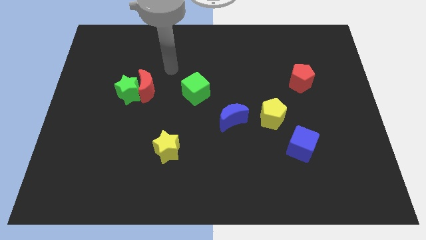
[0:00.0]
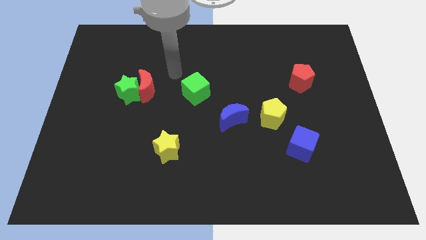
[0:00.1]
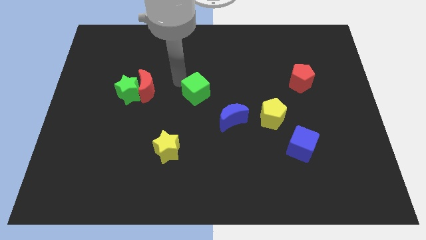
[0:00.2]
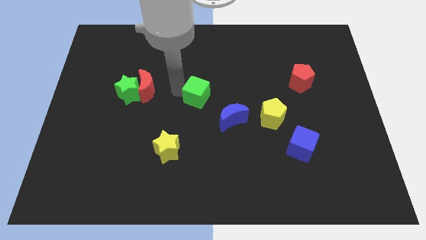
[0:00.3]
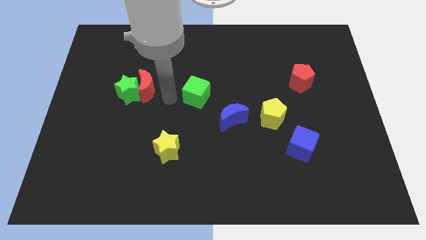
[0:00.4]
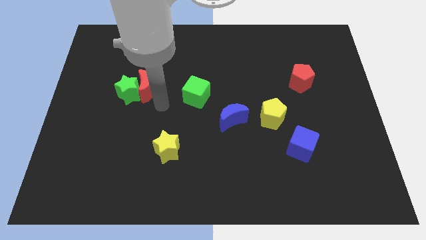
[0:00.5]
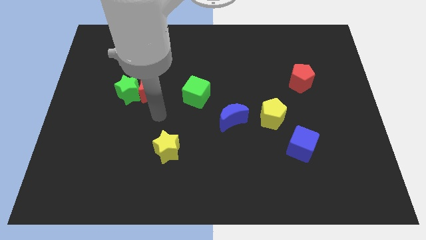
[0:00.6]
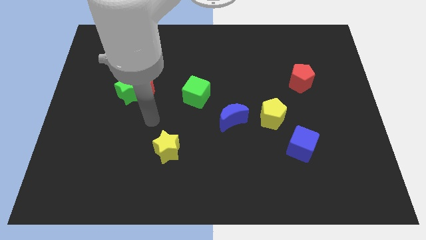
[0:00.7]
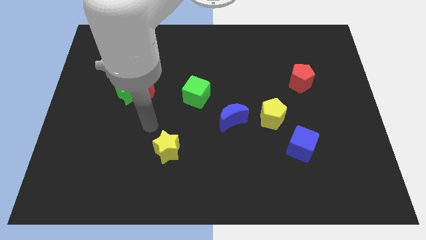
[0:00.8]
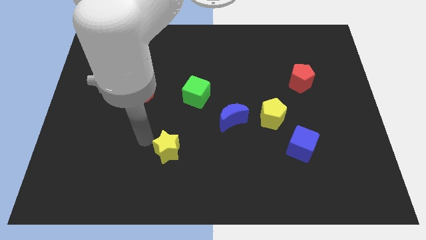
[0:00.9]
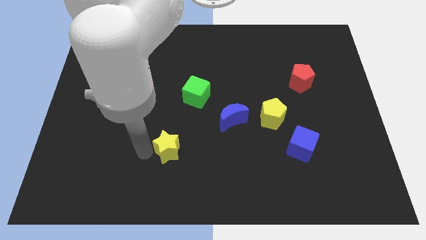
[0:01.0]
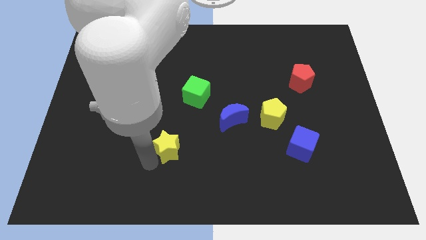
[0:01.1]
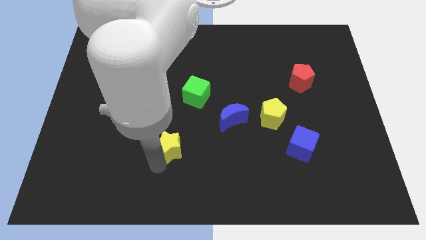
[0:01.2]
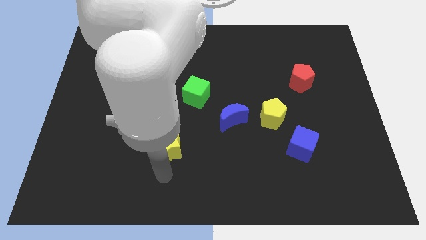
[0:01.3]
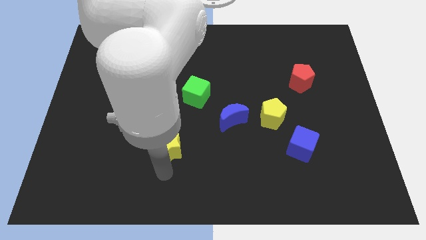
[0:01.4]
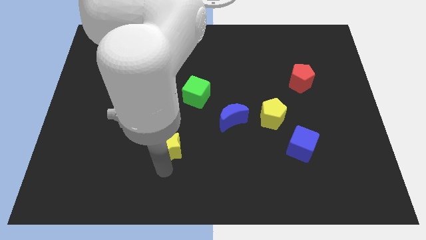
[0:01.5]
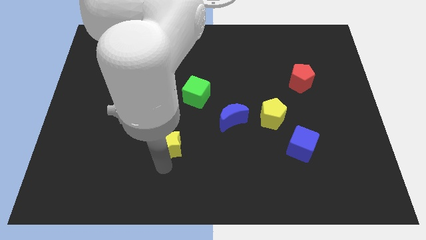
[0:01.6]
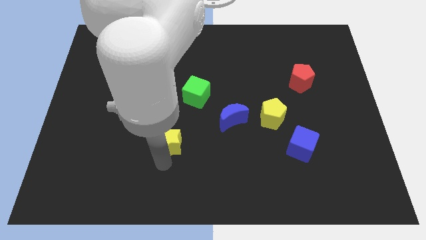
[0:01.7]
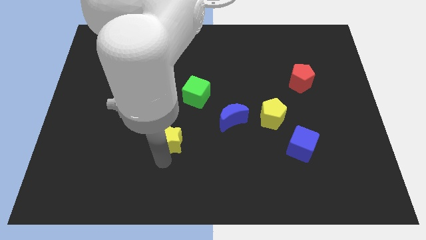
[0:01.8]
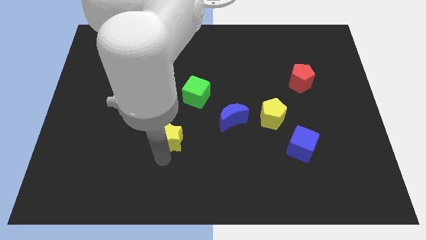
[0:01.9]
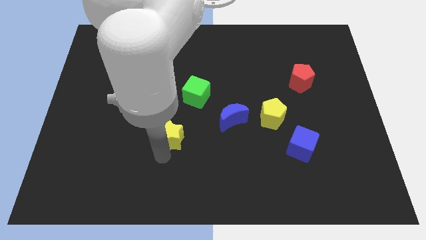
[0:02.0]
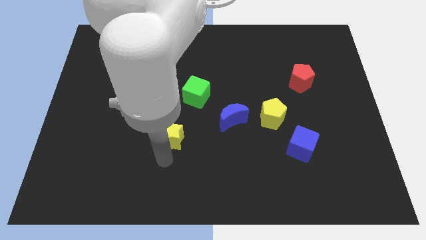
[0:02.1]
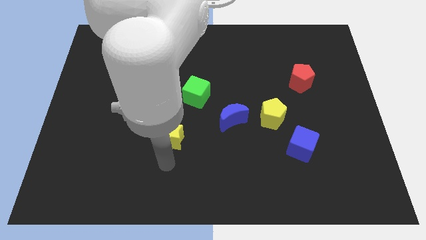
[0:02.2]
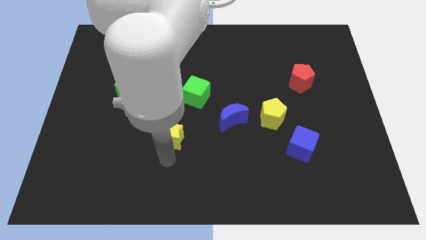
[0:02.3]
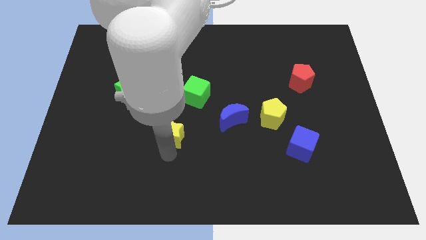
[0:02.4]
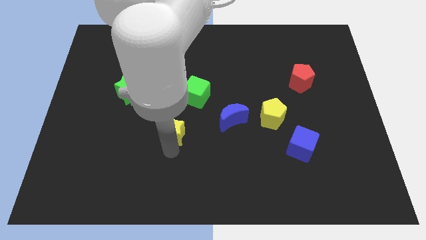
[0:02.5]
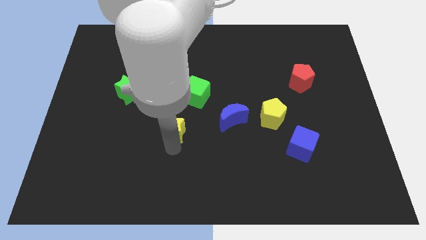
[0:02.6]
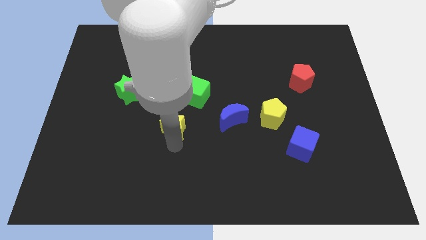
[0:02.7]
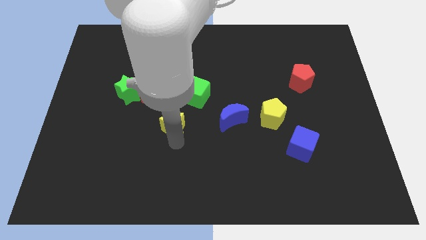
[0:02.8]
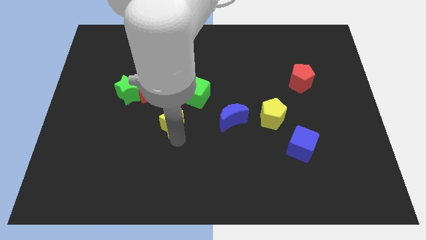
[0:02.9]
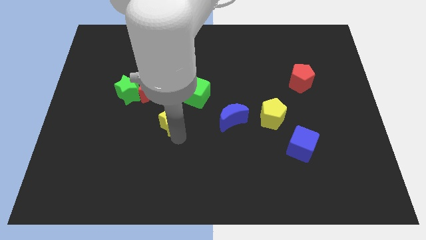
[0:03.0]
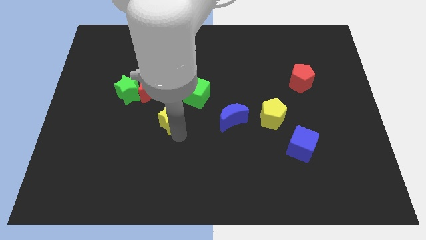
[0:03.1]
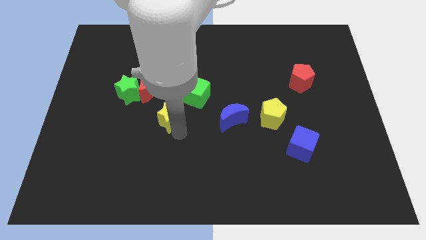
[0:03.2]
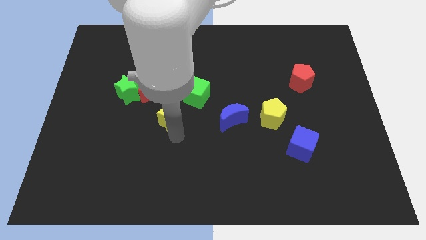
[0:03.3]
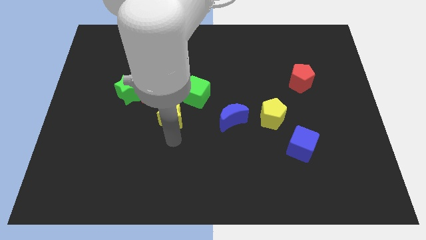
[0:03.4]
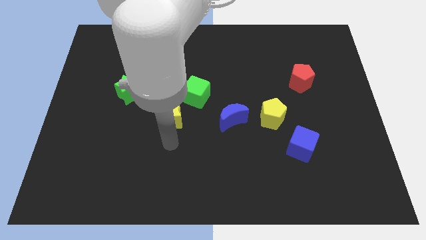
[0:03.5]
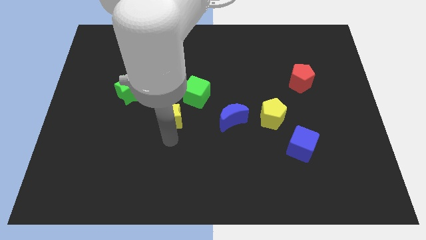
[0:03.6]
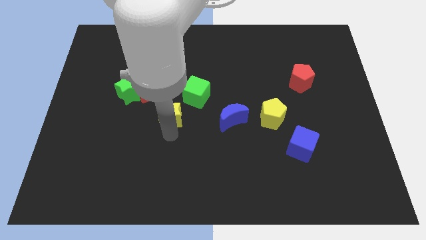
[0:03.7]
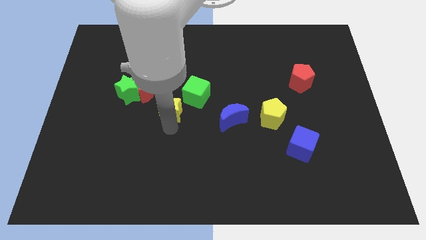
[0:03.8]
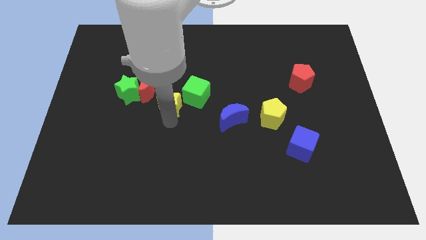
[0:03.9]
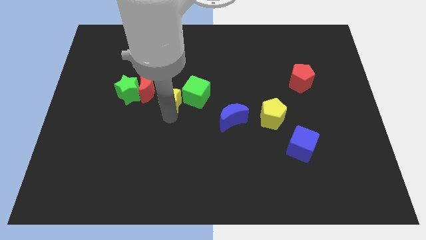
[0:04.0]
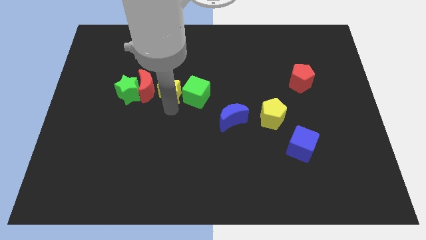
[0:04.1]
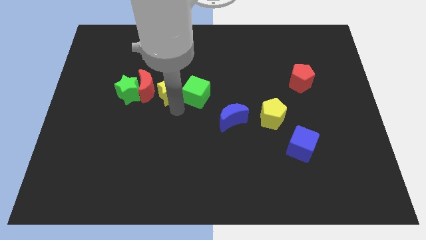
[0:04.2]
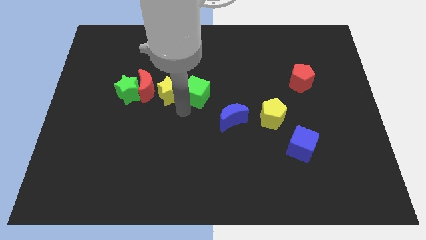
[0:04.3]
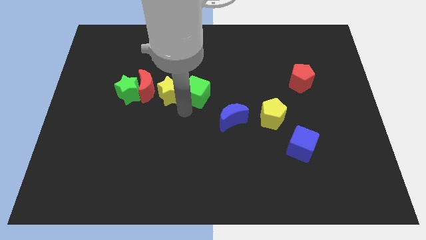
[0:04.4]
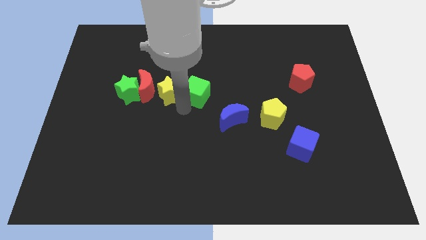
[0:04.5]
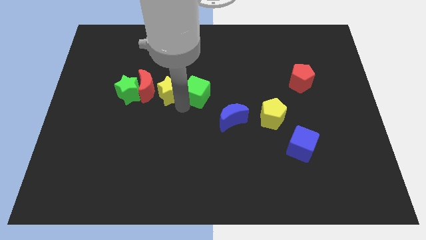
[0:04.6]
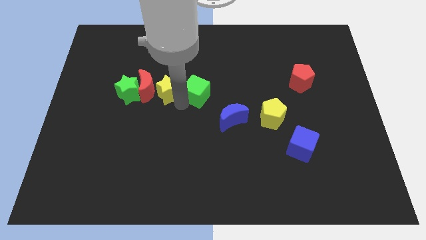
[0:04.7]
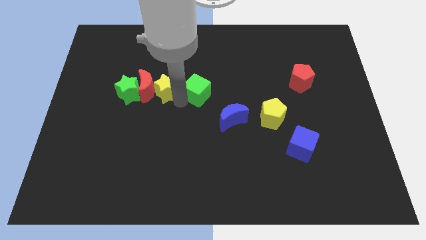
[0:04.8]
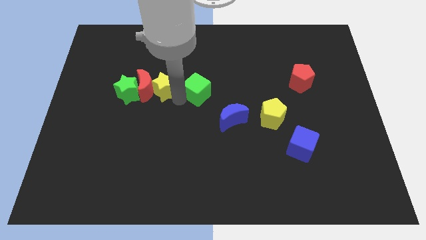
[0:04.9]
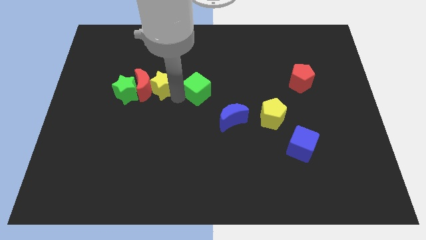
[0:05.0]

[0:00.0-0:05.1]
push the yellow star diagonally up and to the right of the green star

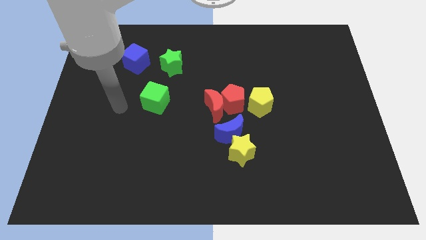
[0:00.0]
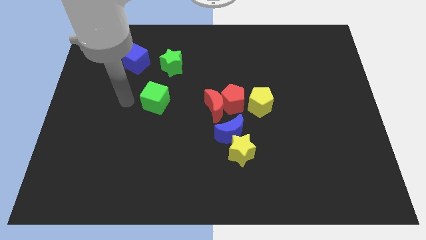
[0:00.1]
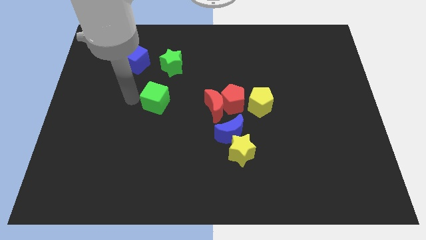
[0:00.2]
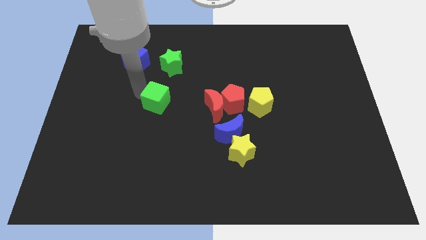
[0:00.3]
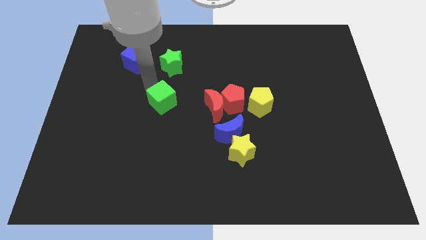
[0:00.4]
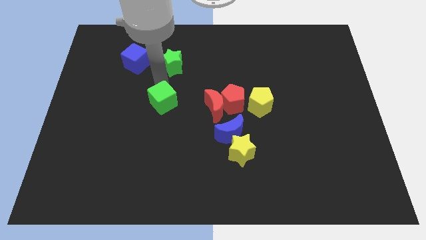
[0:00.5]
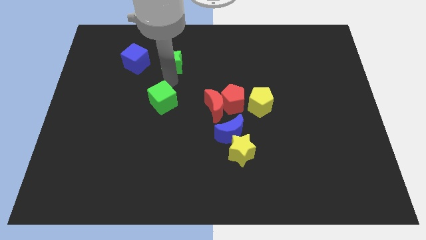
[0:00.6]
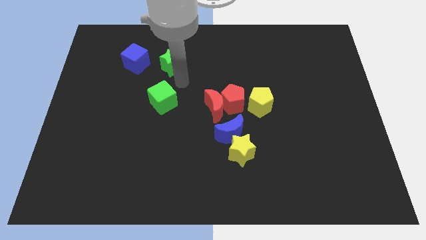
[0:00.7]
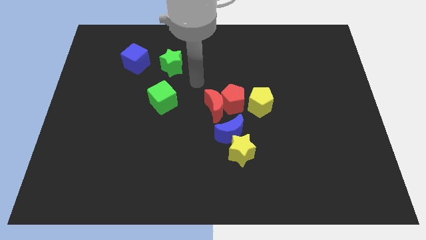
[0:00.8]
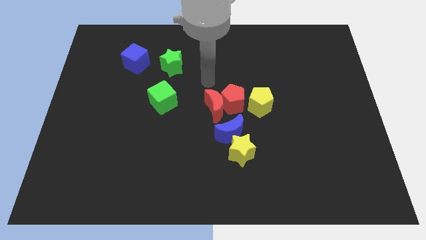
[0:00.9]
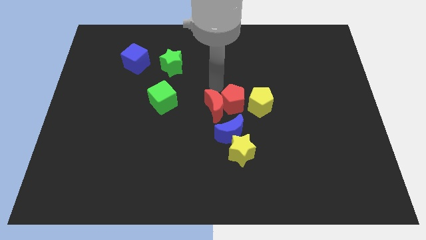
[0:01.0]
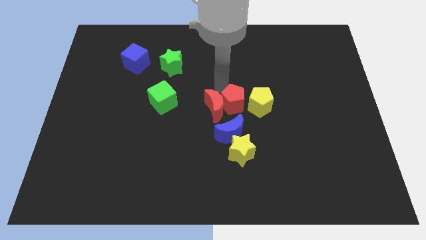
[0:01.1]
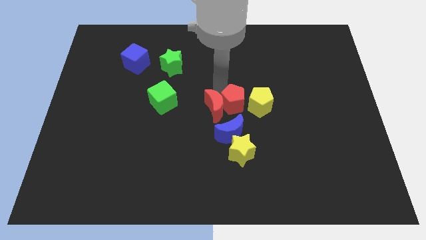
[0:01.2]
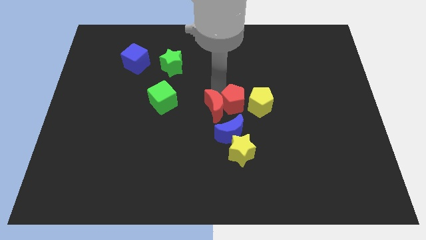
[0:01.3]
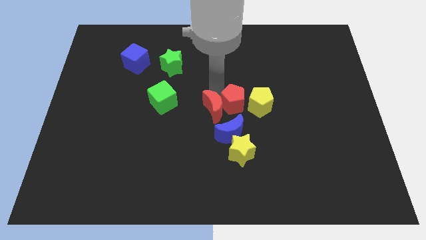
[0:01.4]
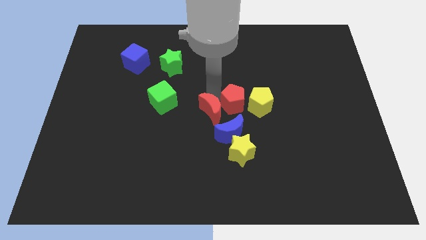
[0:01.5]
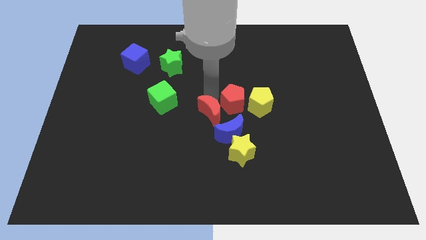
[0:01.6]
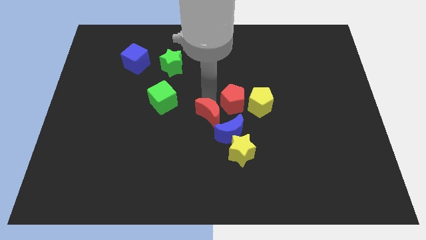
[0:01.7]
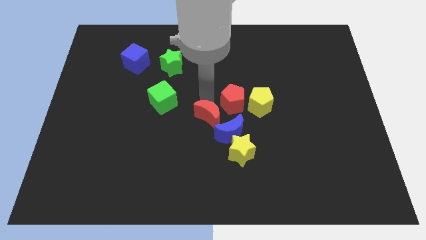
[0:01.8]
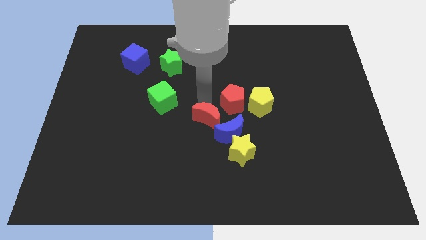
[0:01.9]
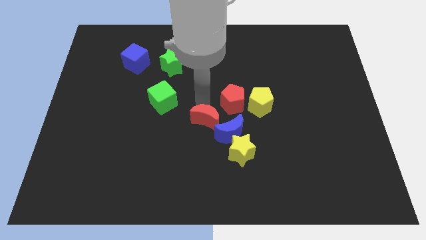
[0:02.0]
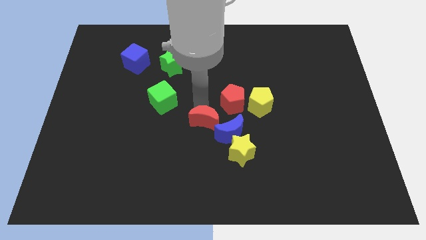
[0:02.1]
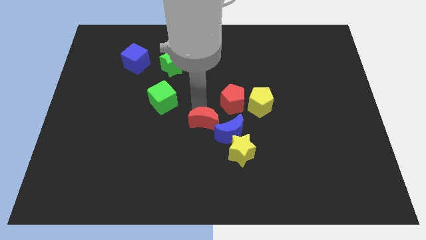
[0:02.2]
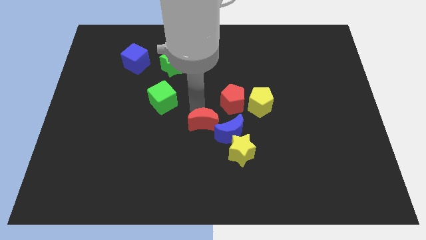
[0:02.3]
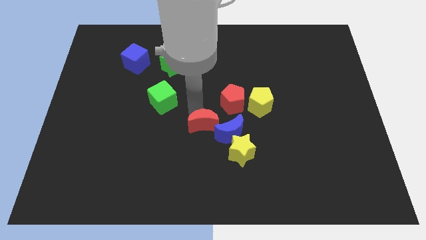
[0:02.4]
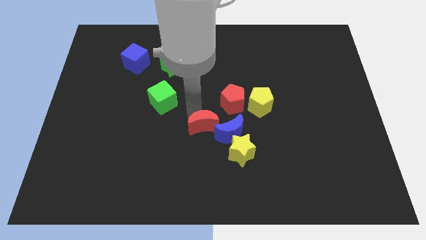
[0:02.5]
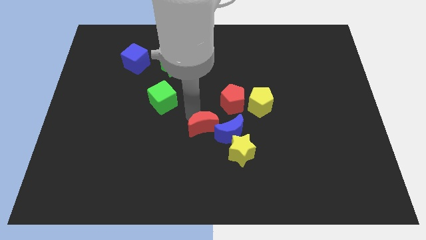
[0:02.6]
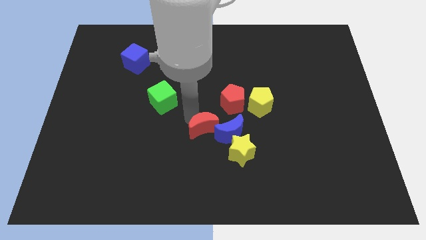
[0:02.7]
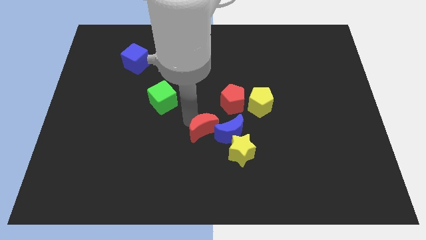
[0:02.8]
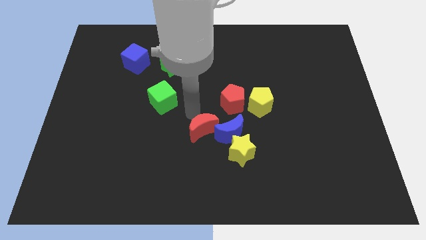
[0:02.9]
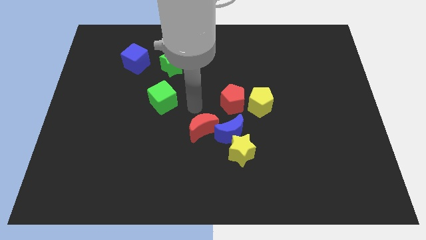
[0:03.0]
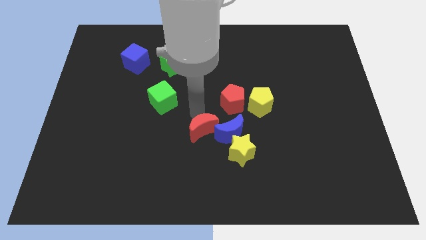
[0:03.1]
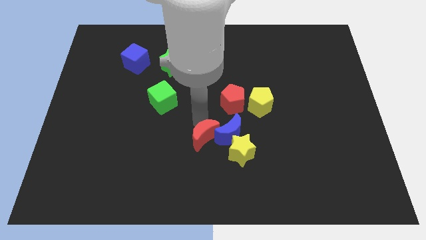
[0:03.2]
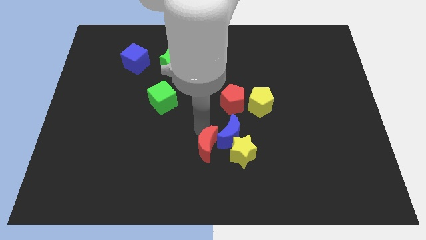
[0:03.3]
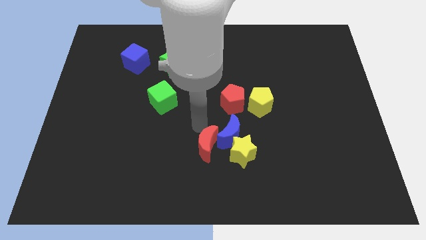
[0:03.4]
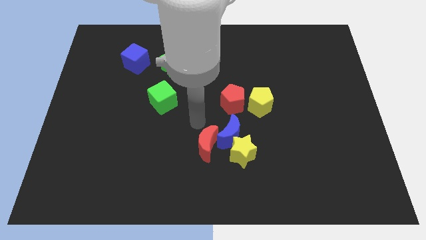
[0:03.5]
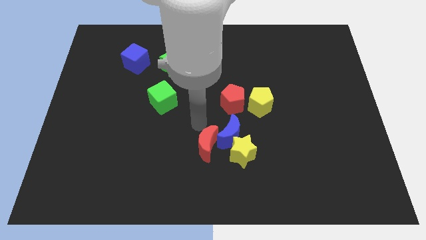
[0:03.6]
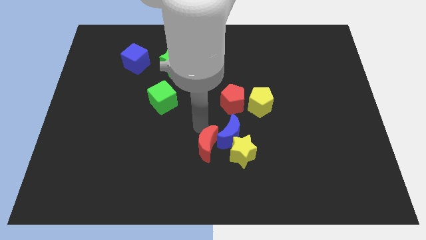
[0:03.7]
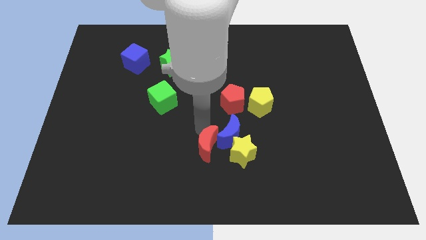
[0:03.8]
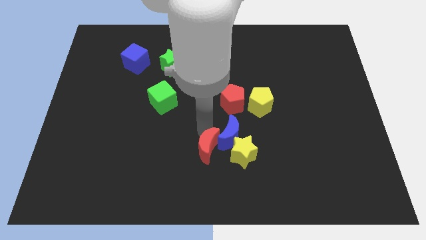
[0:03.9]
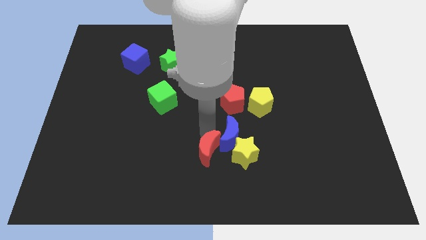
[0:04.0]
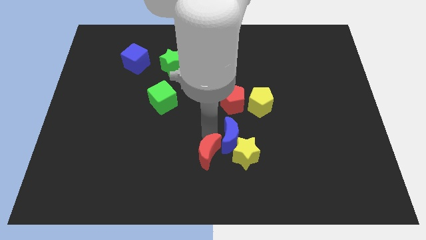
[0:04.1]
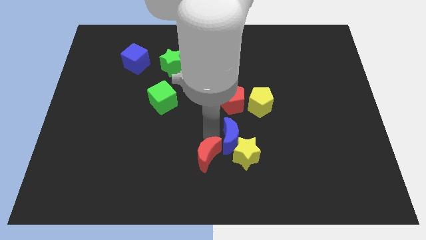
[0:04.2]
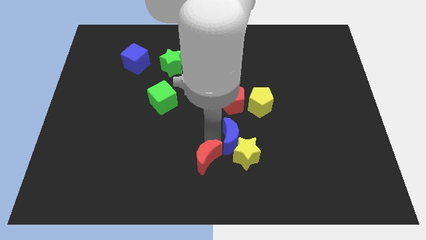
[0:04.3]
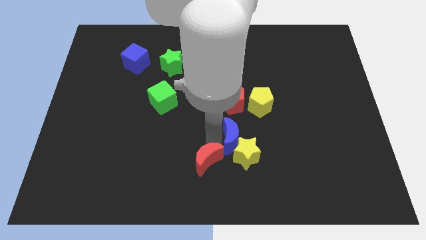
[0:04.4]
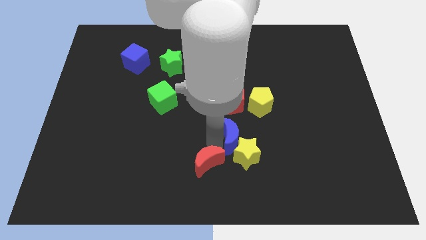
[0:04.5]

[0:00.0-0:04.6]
move the red moon to the bottom left side of the yellow star
